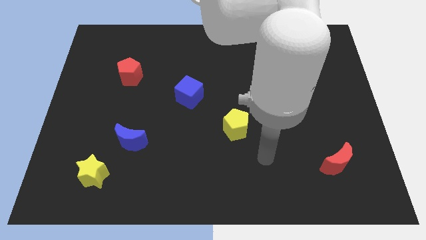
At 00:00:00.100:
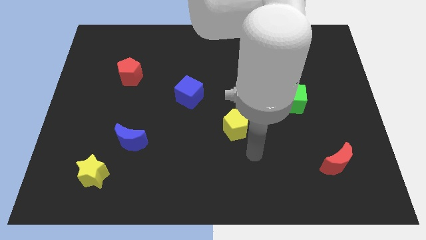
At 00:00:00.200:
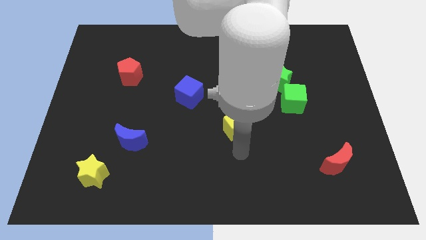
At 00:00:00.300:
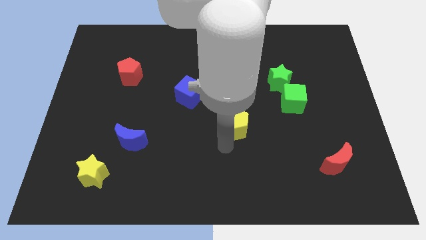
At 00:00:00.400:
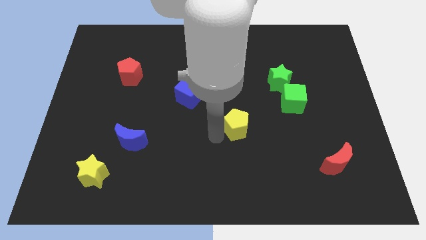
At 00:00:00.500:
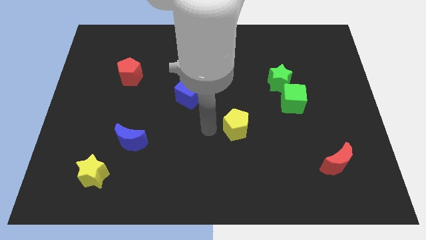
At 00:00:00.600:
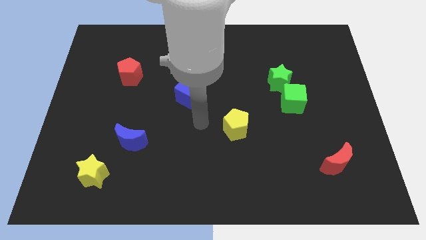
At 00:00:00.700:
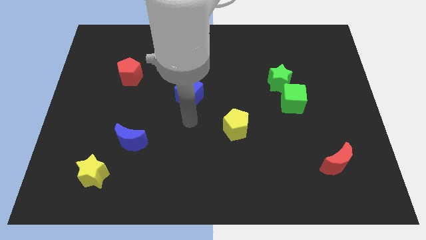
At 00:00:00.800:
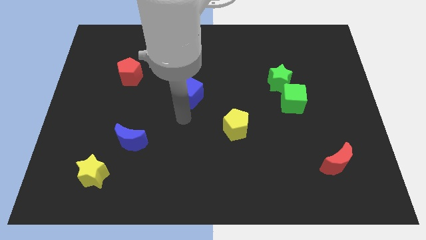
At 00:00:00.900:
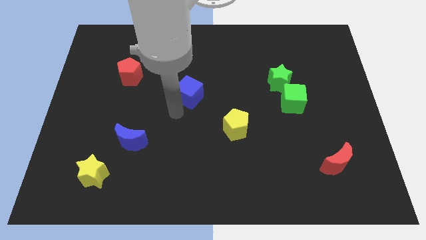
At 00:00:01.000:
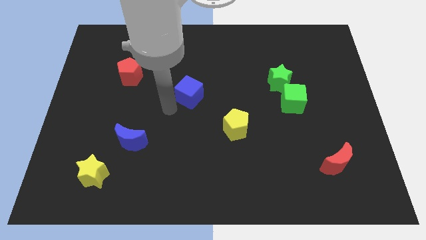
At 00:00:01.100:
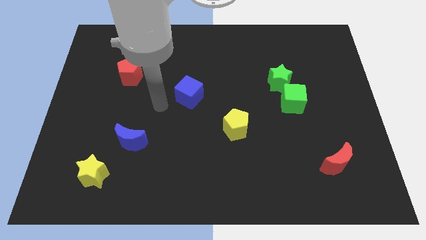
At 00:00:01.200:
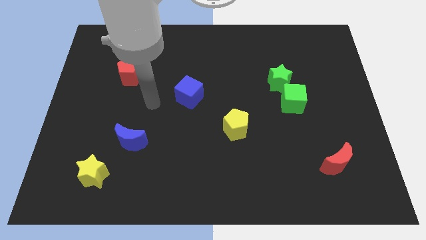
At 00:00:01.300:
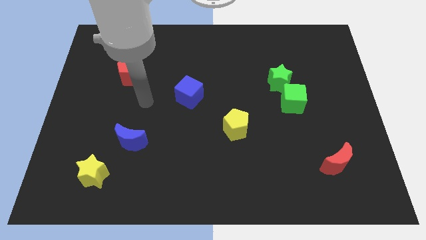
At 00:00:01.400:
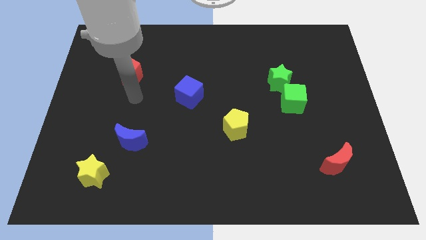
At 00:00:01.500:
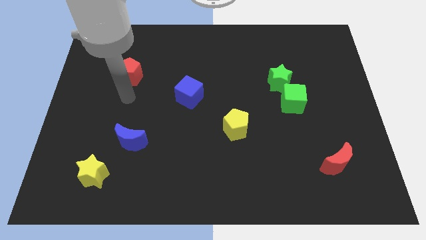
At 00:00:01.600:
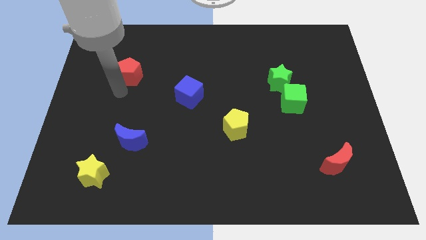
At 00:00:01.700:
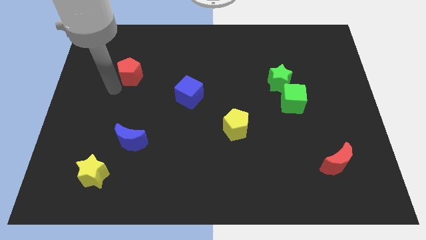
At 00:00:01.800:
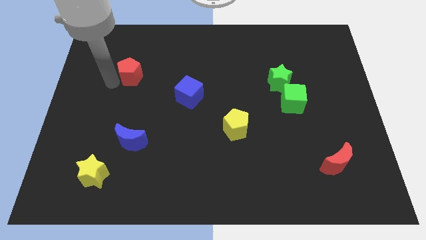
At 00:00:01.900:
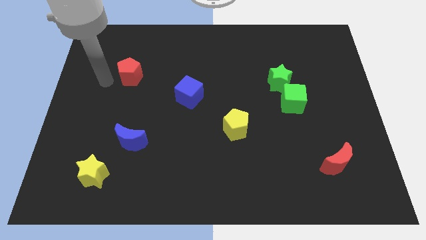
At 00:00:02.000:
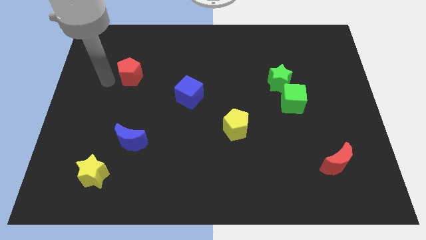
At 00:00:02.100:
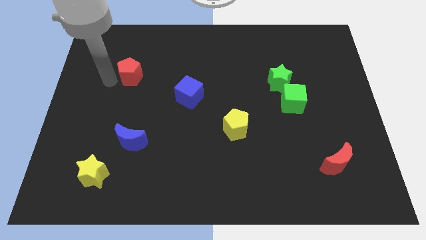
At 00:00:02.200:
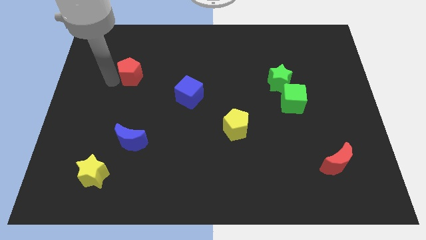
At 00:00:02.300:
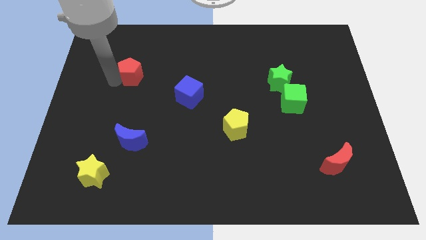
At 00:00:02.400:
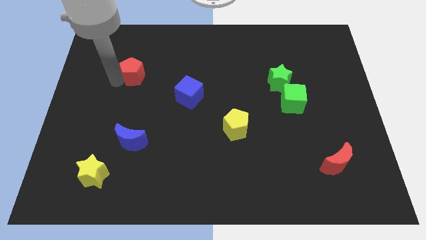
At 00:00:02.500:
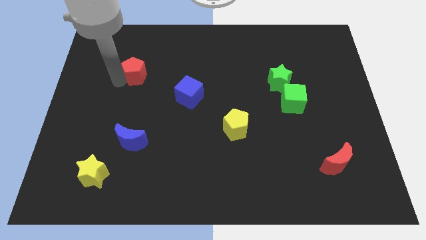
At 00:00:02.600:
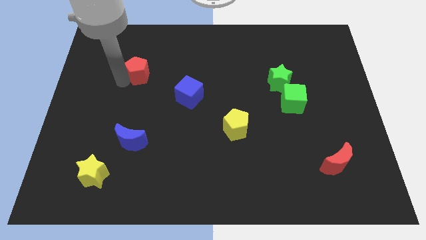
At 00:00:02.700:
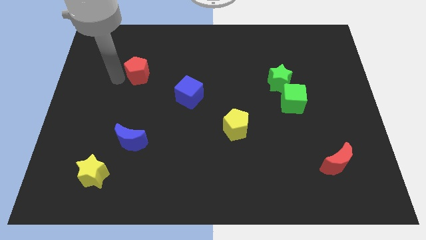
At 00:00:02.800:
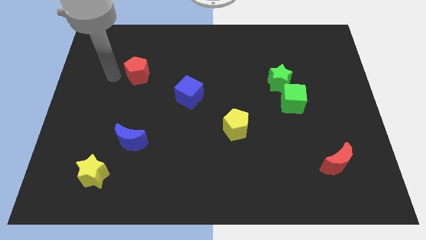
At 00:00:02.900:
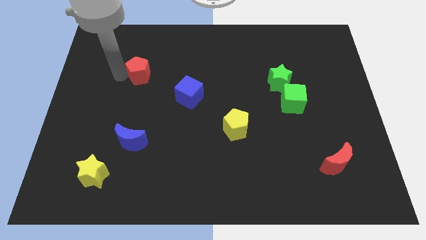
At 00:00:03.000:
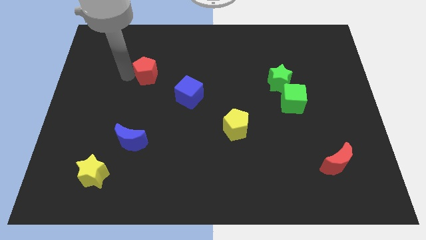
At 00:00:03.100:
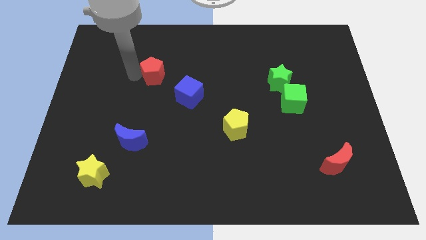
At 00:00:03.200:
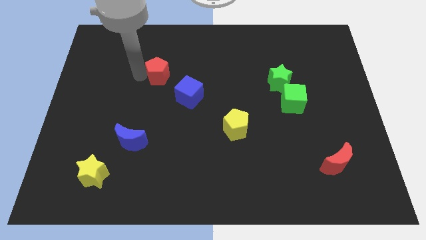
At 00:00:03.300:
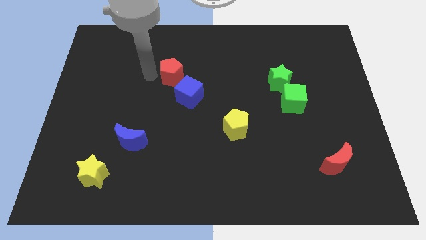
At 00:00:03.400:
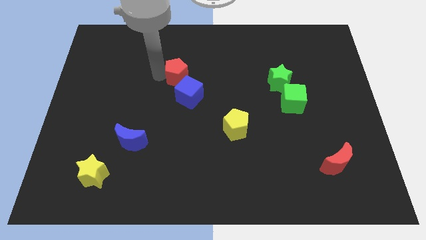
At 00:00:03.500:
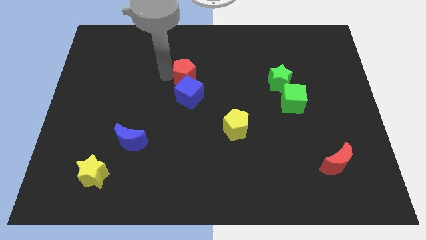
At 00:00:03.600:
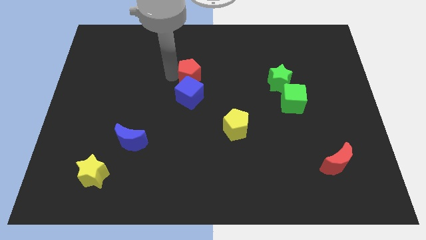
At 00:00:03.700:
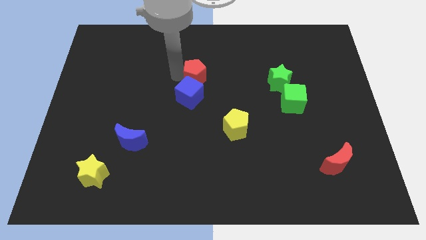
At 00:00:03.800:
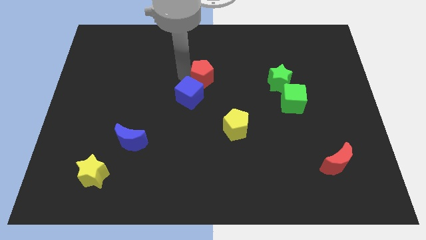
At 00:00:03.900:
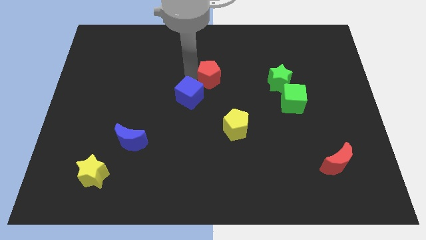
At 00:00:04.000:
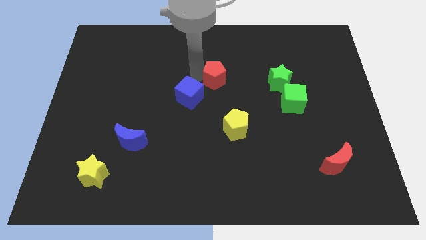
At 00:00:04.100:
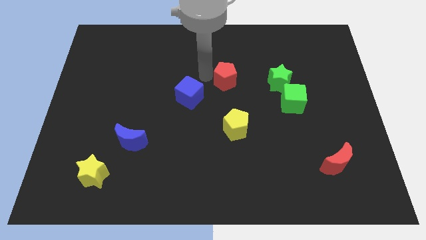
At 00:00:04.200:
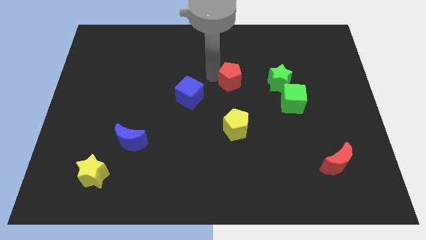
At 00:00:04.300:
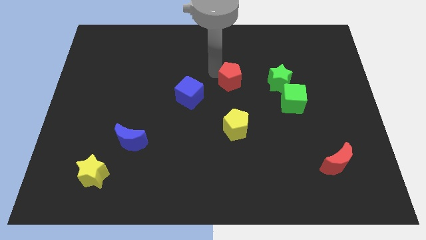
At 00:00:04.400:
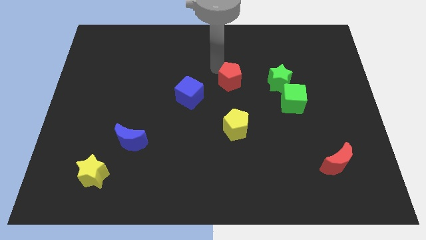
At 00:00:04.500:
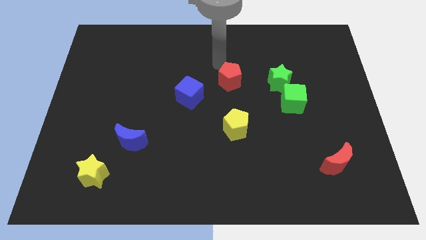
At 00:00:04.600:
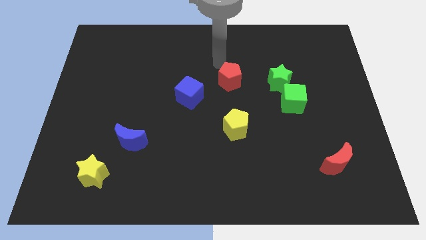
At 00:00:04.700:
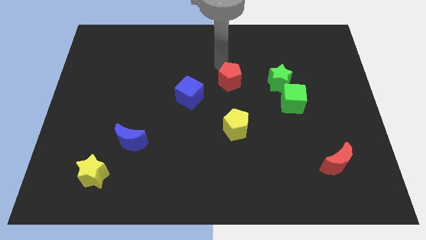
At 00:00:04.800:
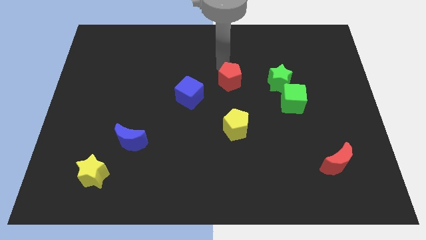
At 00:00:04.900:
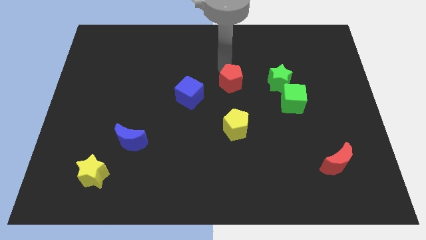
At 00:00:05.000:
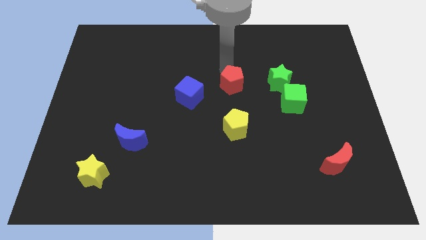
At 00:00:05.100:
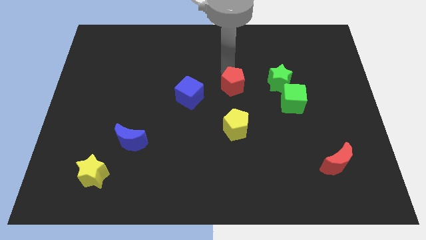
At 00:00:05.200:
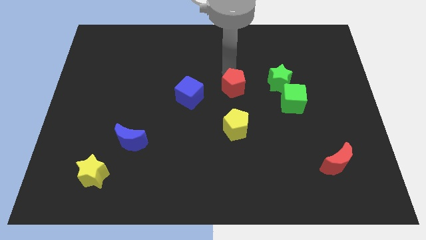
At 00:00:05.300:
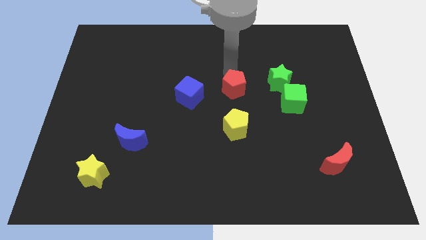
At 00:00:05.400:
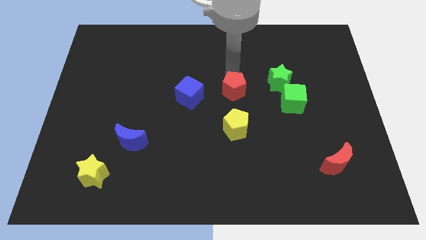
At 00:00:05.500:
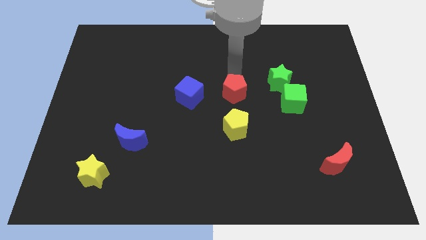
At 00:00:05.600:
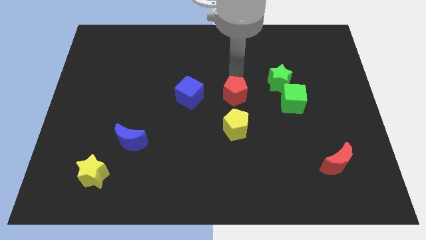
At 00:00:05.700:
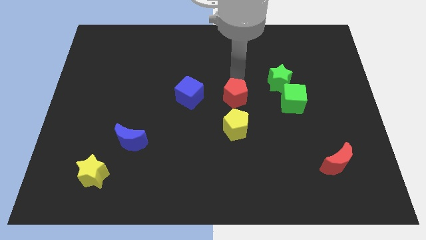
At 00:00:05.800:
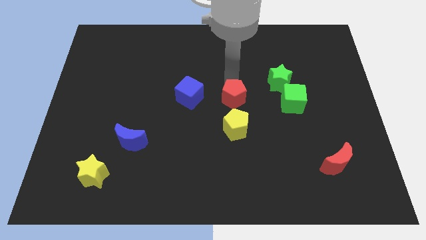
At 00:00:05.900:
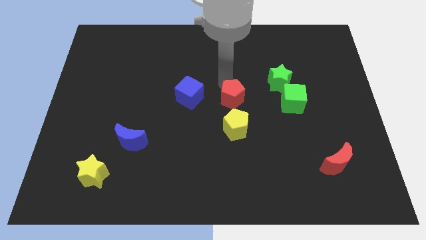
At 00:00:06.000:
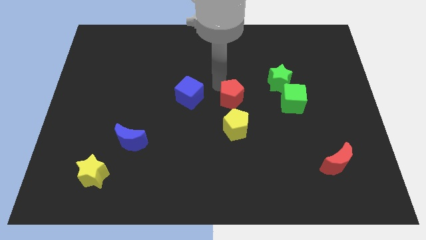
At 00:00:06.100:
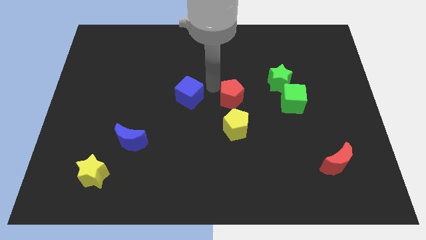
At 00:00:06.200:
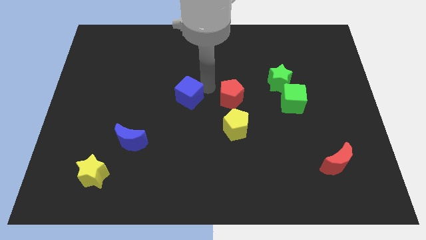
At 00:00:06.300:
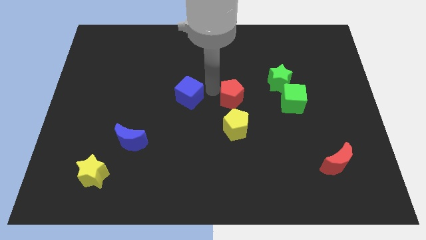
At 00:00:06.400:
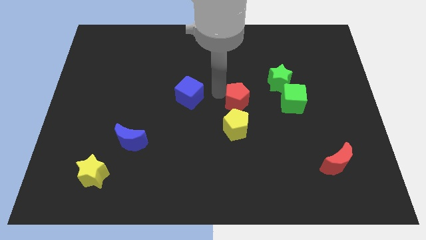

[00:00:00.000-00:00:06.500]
put the red pentagon diagonally up and to the right of the yellow pentagon
